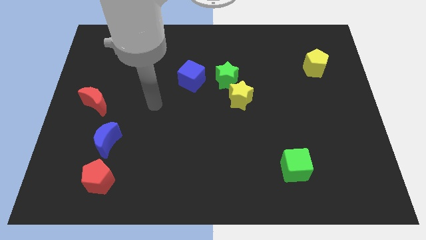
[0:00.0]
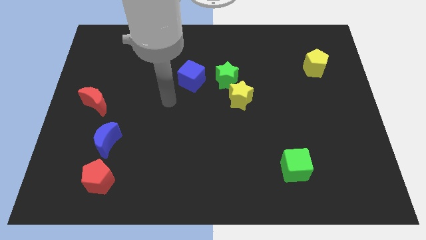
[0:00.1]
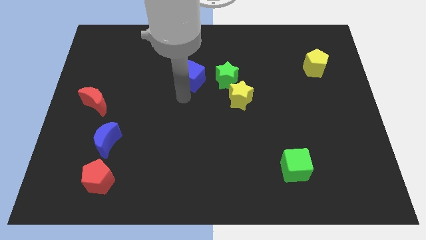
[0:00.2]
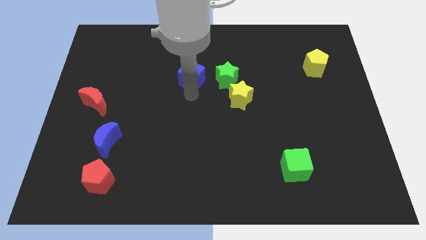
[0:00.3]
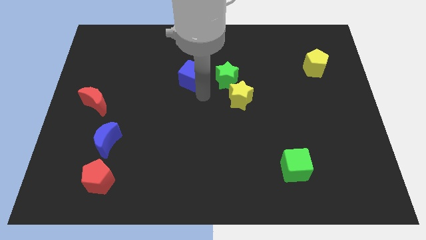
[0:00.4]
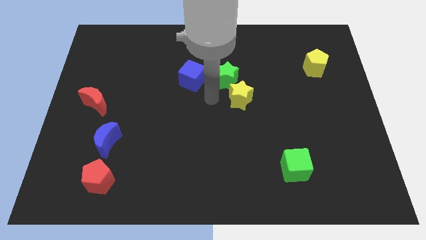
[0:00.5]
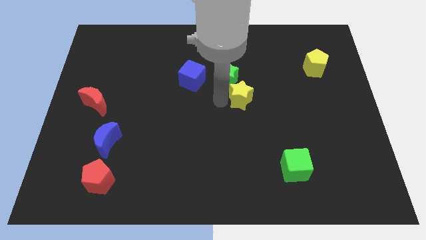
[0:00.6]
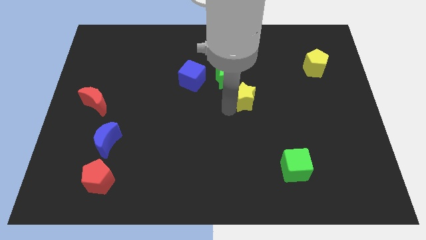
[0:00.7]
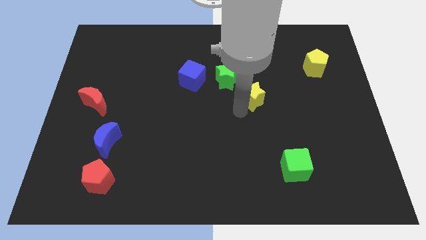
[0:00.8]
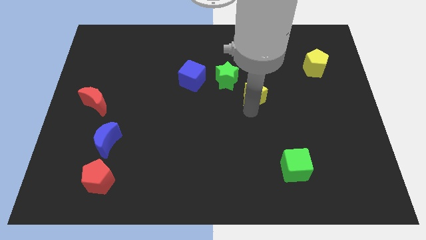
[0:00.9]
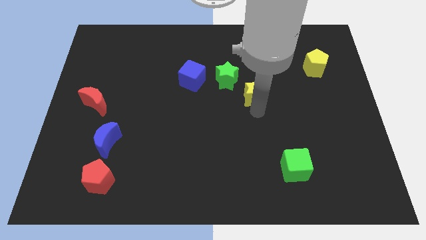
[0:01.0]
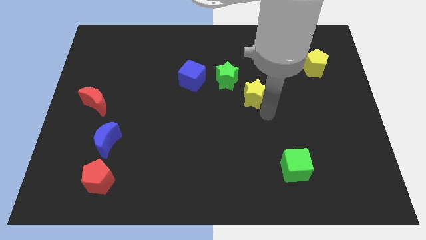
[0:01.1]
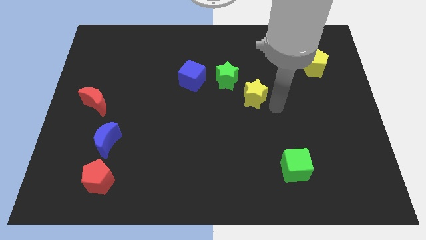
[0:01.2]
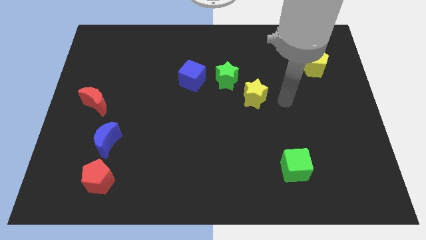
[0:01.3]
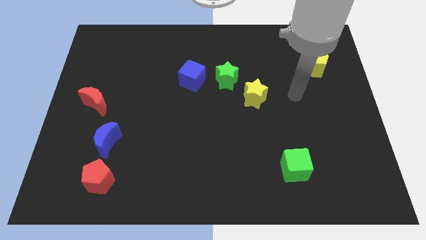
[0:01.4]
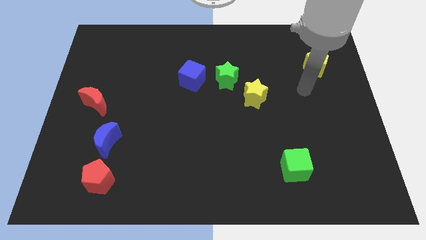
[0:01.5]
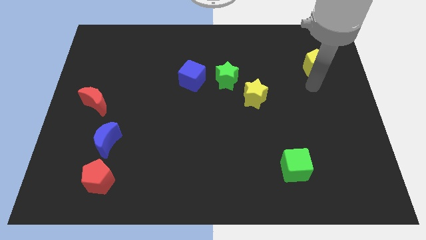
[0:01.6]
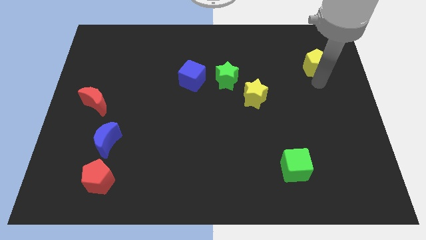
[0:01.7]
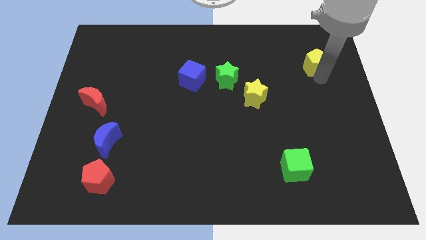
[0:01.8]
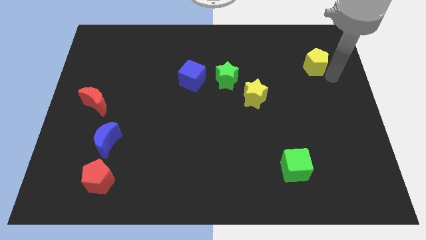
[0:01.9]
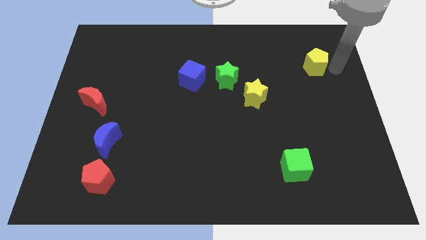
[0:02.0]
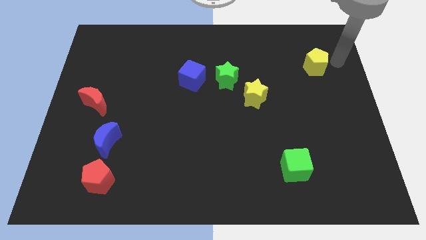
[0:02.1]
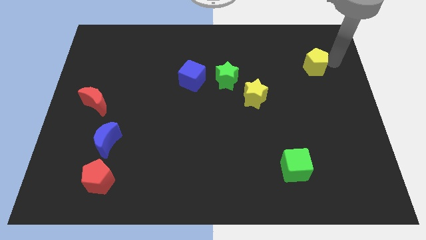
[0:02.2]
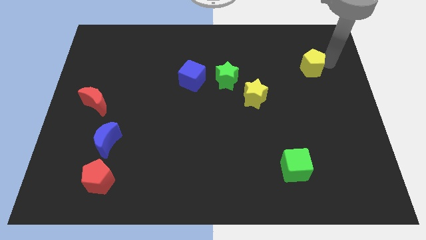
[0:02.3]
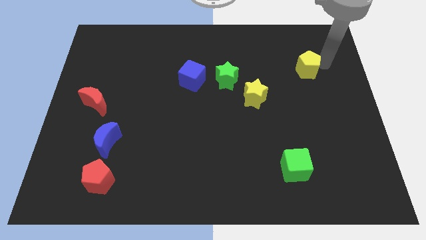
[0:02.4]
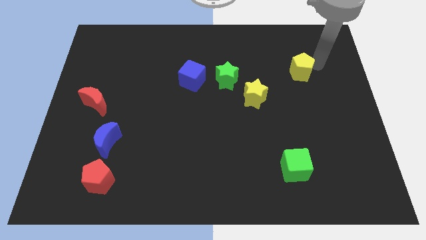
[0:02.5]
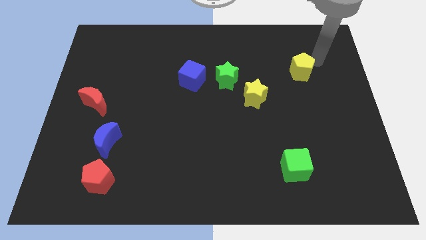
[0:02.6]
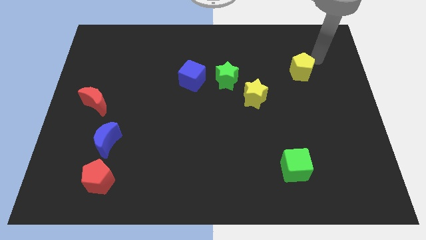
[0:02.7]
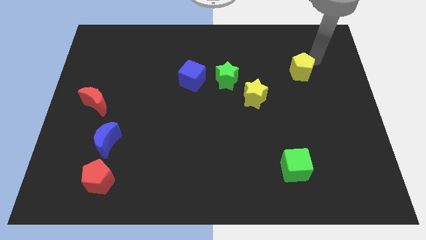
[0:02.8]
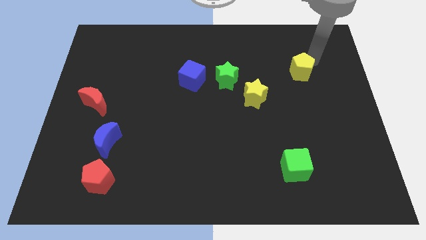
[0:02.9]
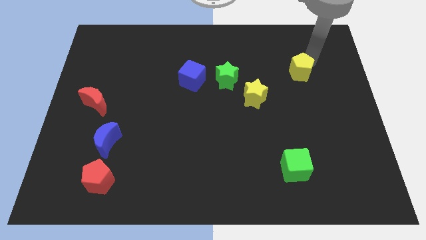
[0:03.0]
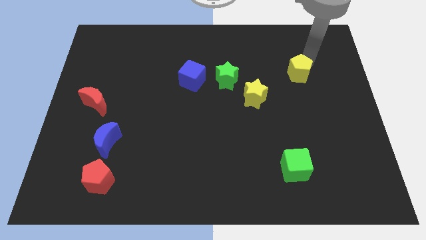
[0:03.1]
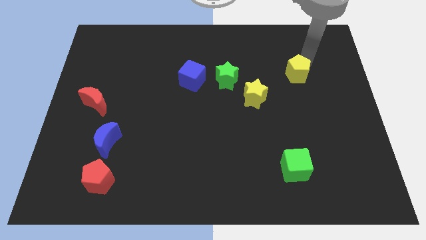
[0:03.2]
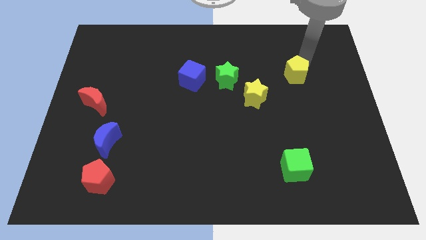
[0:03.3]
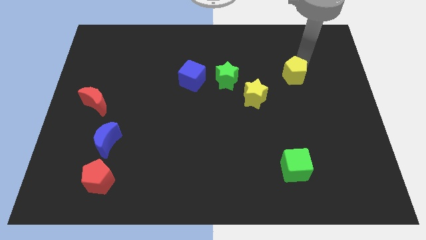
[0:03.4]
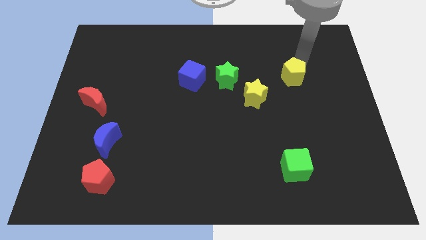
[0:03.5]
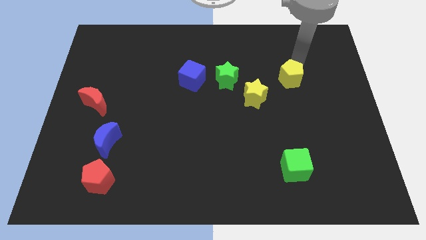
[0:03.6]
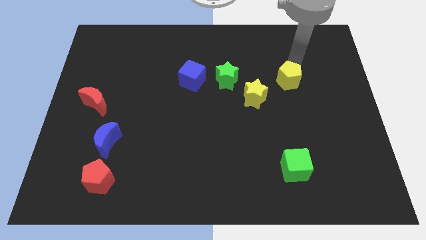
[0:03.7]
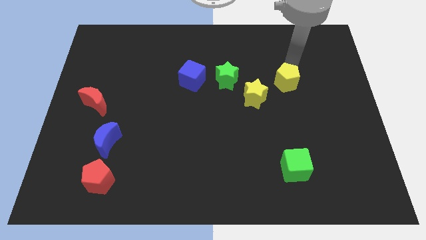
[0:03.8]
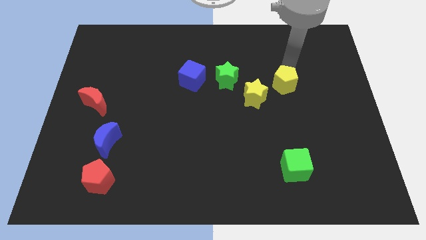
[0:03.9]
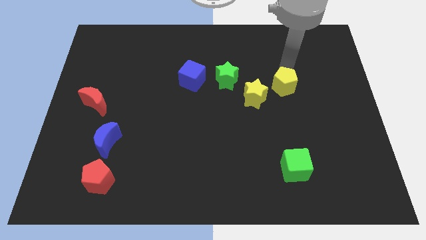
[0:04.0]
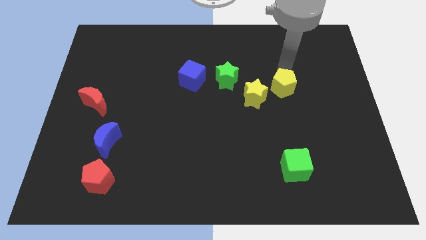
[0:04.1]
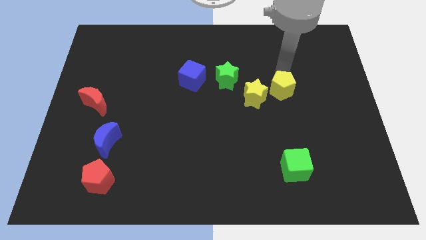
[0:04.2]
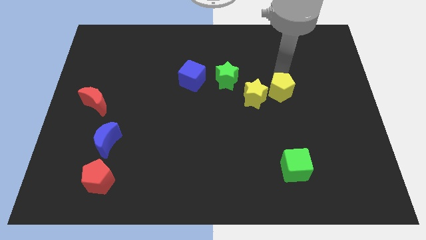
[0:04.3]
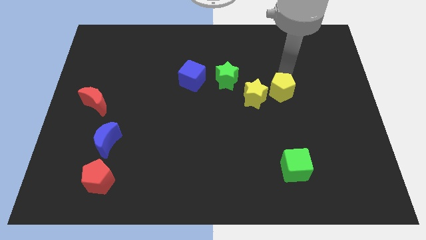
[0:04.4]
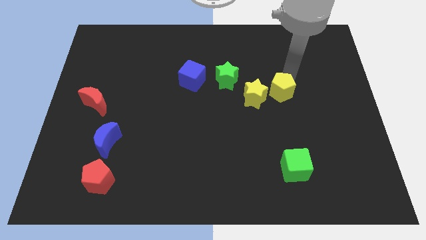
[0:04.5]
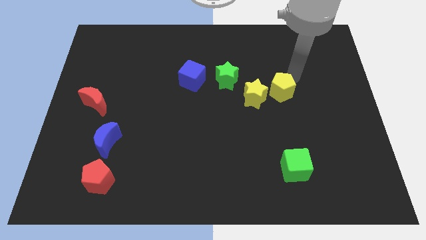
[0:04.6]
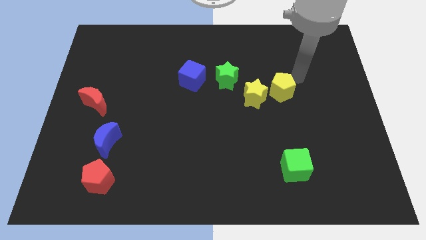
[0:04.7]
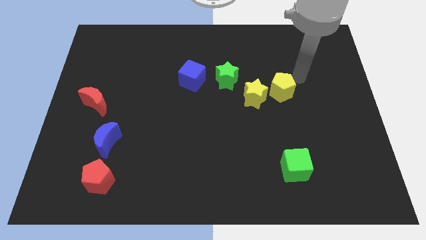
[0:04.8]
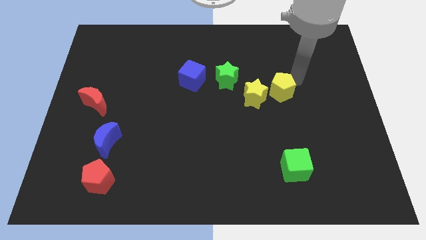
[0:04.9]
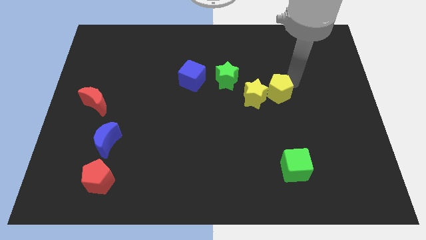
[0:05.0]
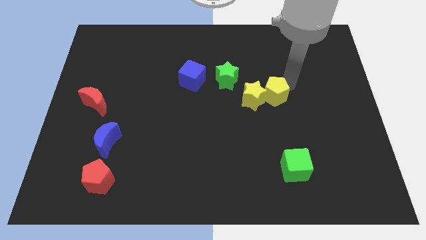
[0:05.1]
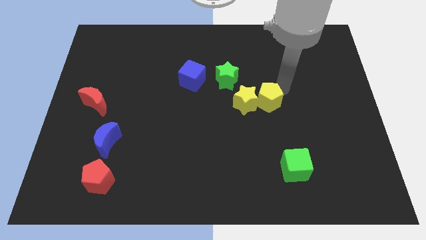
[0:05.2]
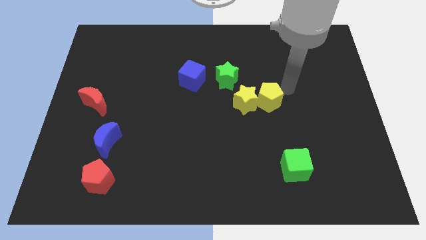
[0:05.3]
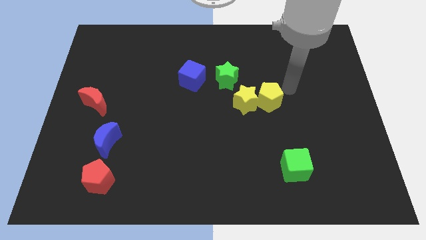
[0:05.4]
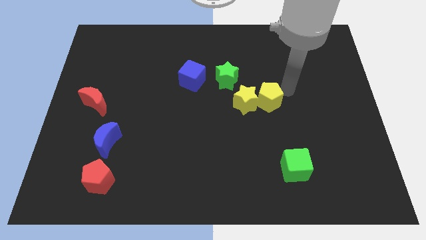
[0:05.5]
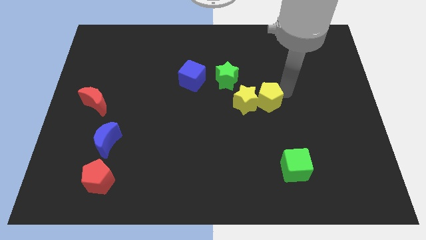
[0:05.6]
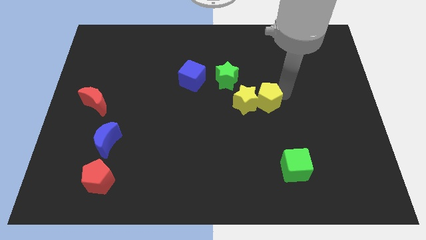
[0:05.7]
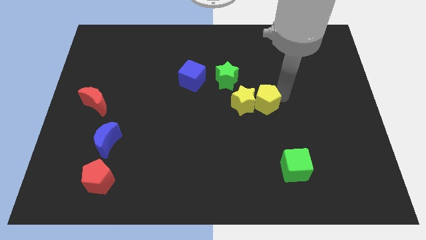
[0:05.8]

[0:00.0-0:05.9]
put the yellow pentagon to the center of the board

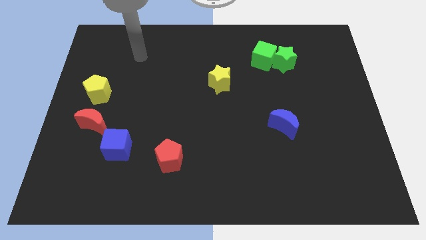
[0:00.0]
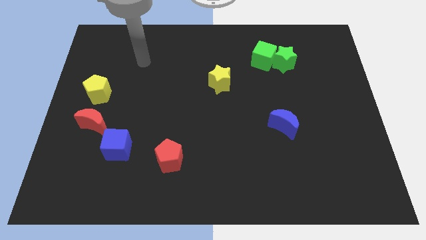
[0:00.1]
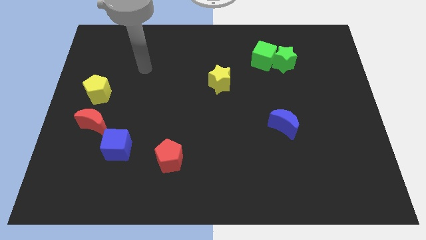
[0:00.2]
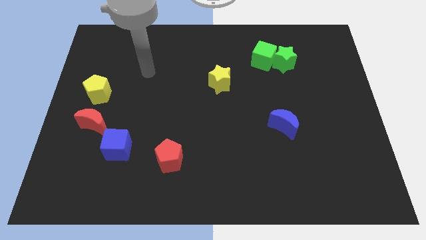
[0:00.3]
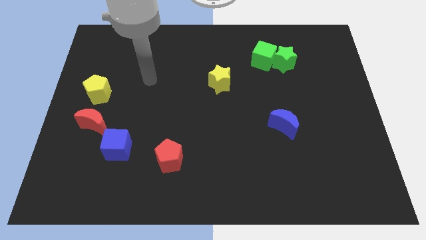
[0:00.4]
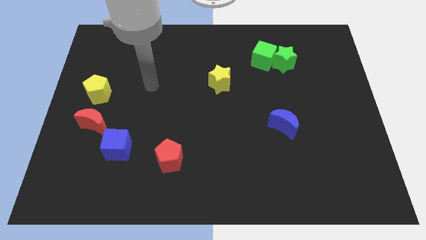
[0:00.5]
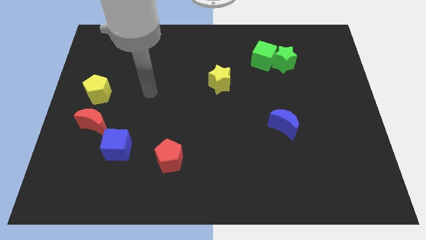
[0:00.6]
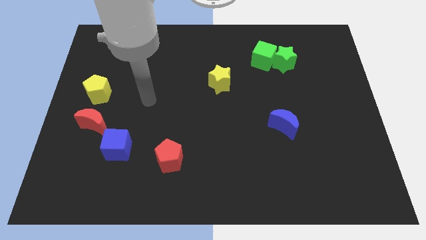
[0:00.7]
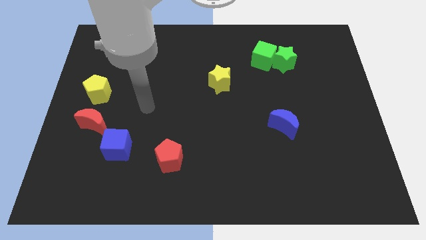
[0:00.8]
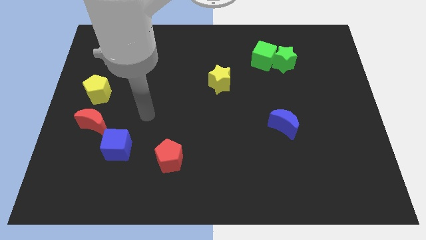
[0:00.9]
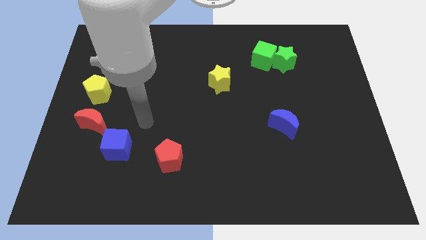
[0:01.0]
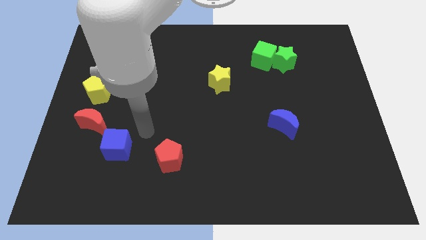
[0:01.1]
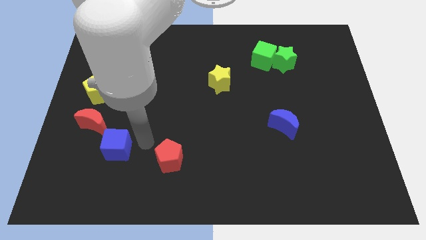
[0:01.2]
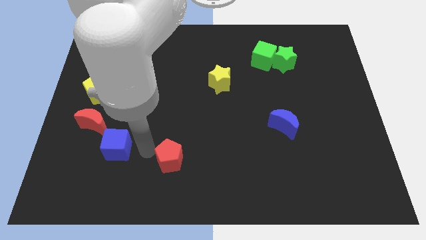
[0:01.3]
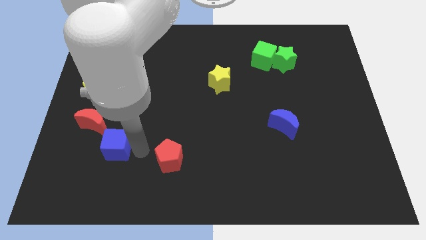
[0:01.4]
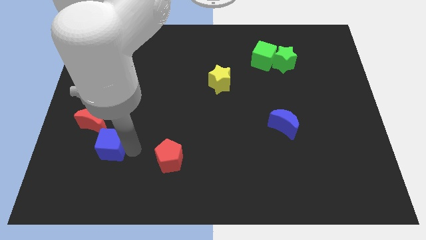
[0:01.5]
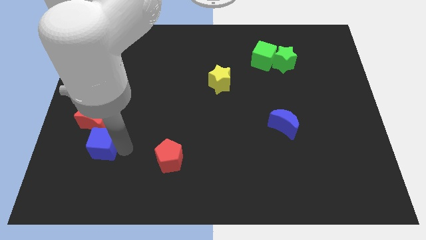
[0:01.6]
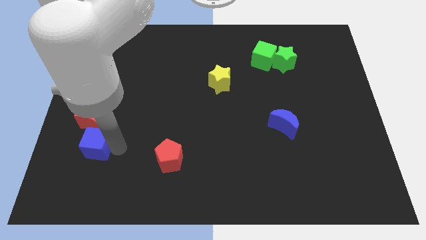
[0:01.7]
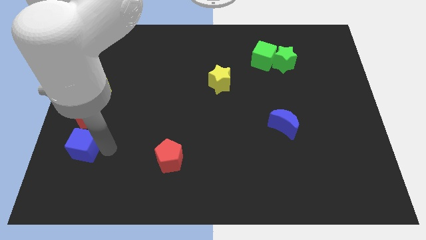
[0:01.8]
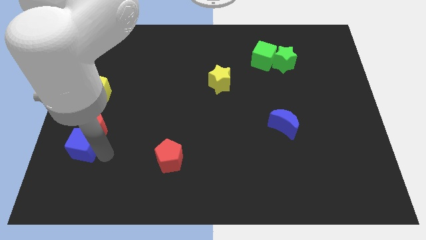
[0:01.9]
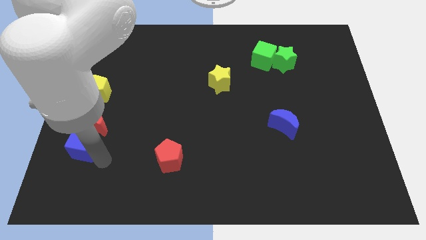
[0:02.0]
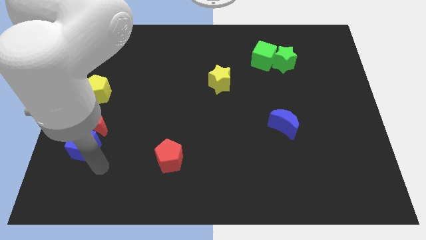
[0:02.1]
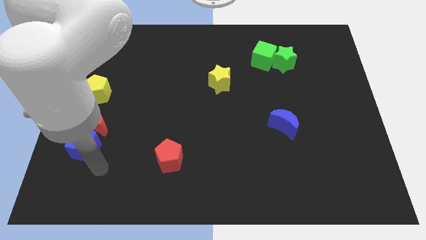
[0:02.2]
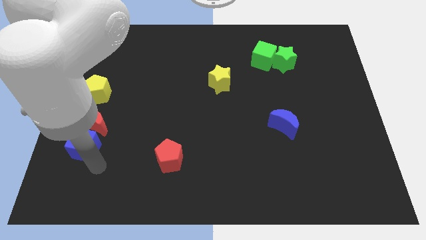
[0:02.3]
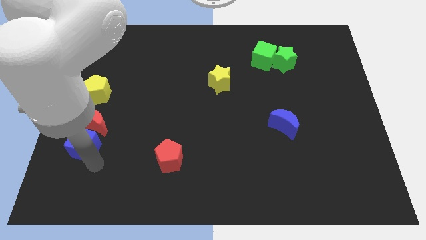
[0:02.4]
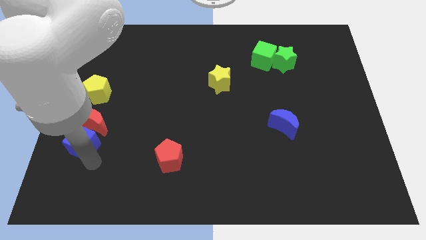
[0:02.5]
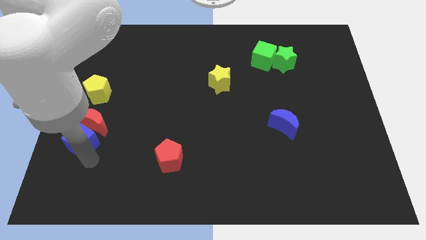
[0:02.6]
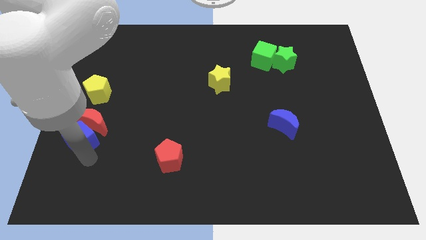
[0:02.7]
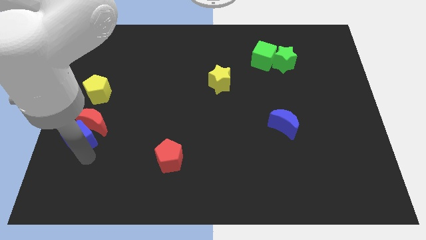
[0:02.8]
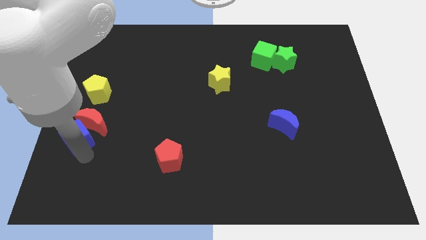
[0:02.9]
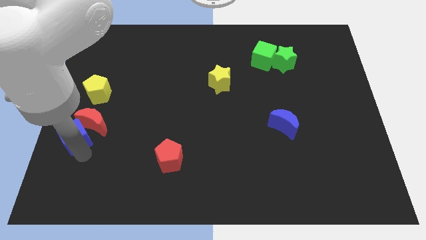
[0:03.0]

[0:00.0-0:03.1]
push the blue cube to the center left
